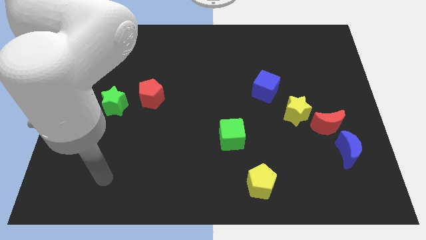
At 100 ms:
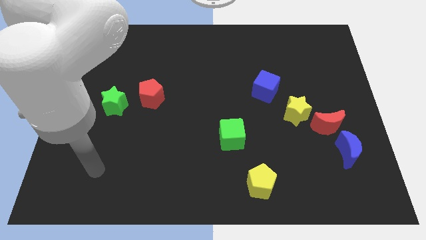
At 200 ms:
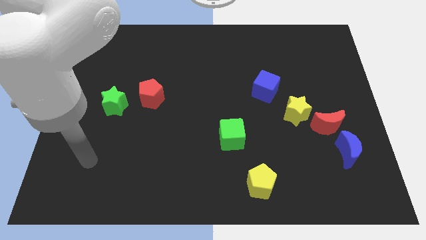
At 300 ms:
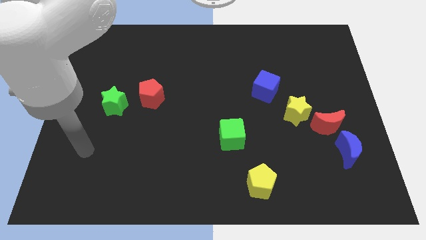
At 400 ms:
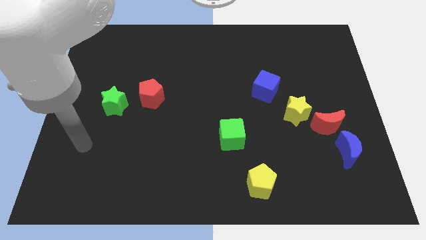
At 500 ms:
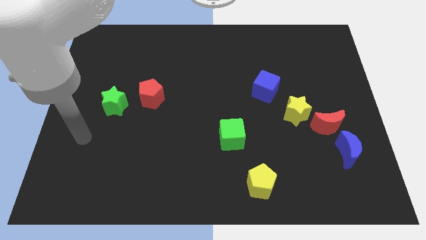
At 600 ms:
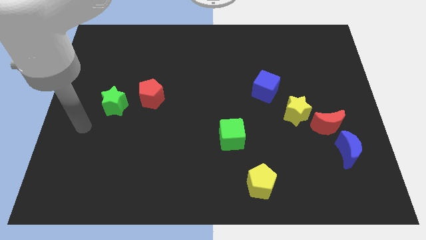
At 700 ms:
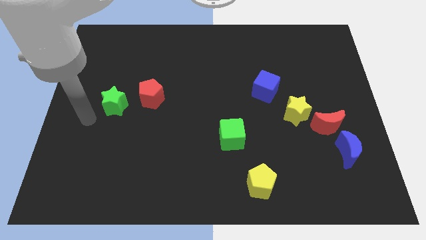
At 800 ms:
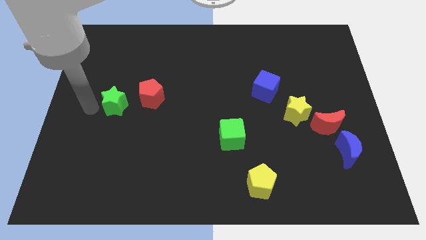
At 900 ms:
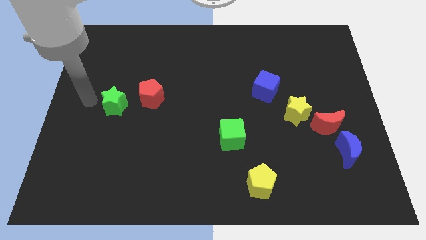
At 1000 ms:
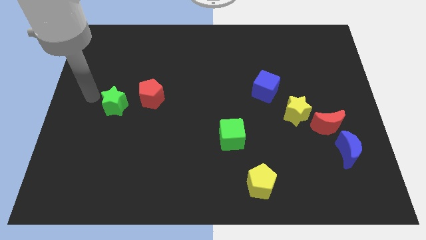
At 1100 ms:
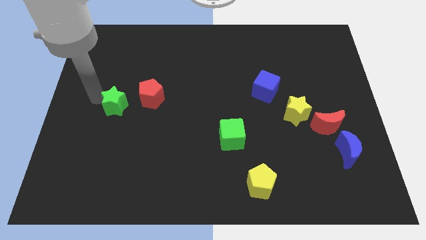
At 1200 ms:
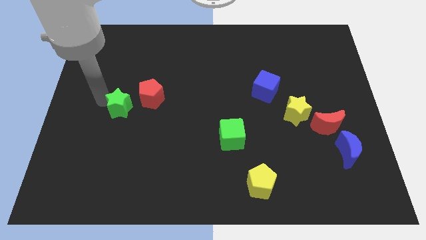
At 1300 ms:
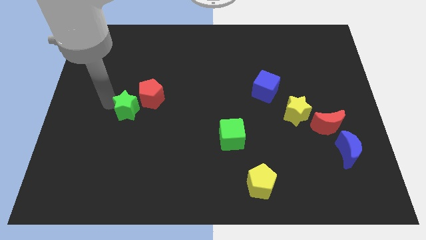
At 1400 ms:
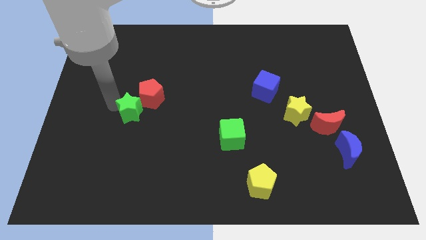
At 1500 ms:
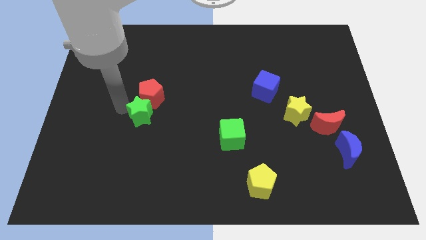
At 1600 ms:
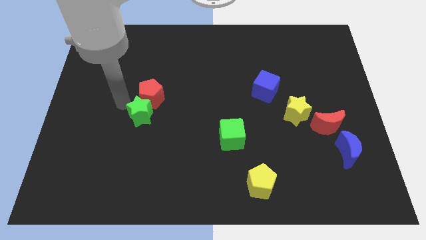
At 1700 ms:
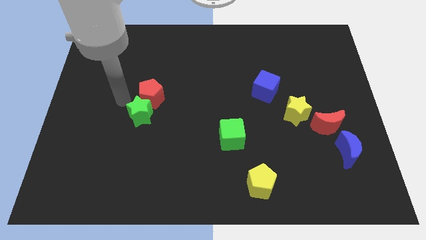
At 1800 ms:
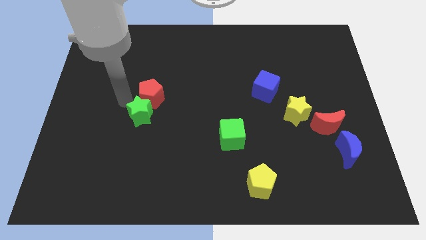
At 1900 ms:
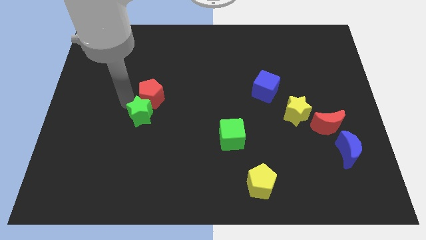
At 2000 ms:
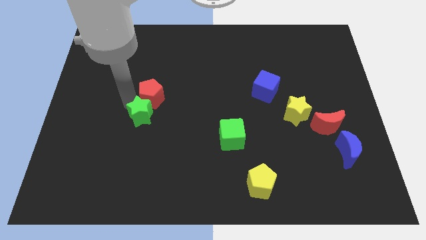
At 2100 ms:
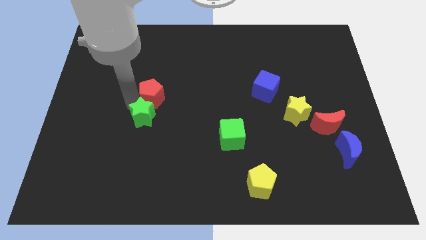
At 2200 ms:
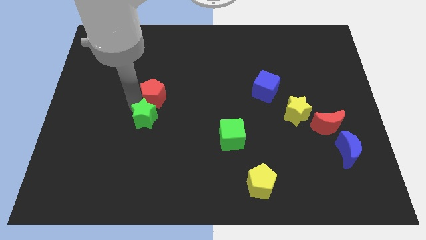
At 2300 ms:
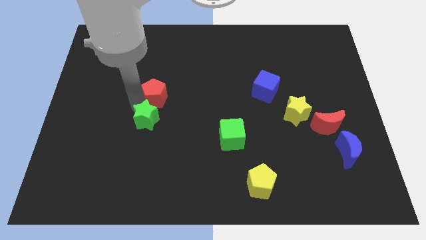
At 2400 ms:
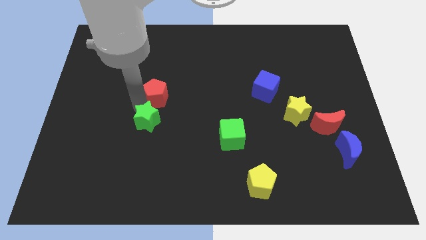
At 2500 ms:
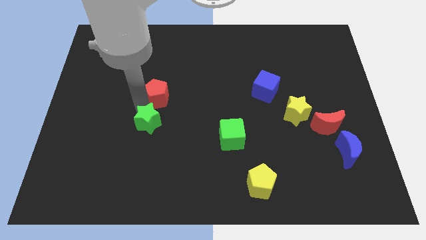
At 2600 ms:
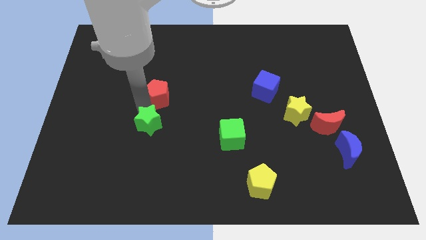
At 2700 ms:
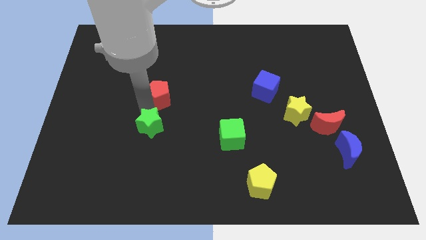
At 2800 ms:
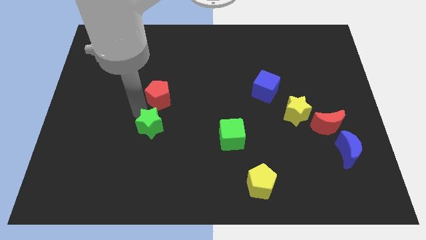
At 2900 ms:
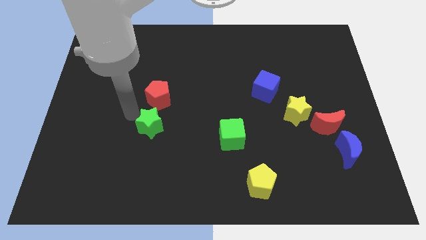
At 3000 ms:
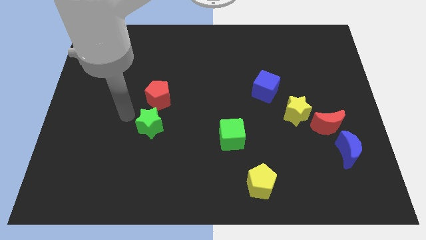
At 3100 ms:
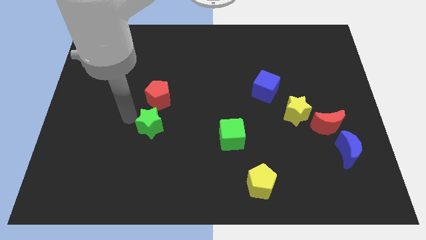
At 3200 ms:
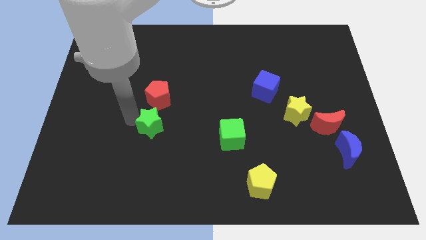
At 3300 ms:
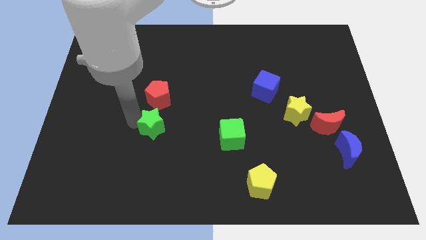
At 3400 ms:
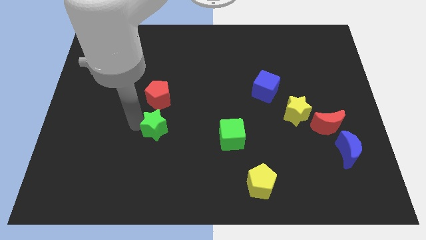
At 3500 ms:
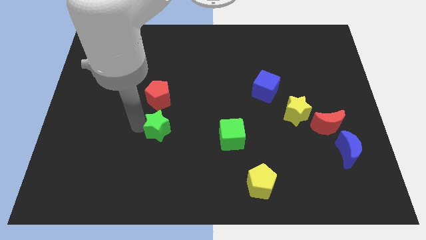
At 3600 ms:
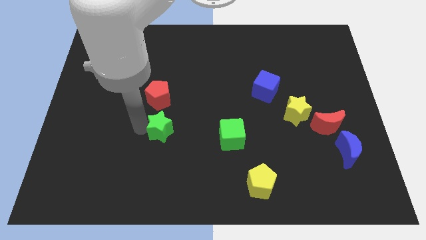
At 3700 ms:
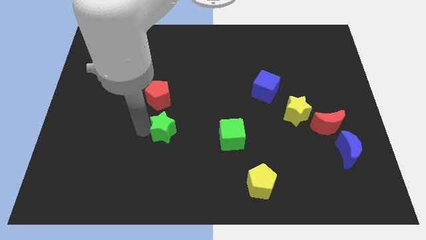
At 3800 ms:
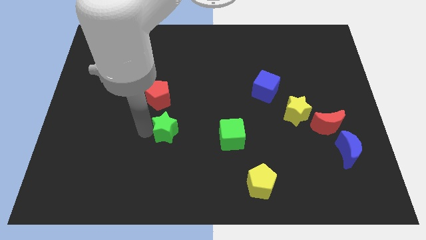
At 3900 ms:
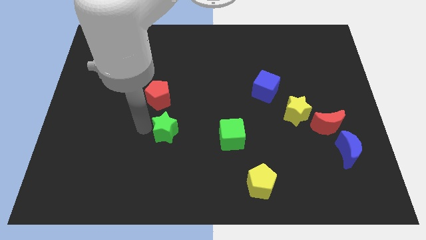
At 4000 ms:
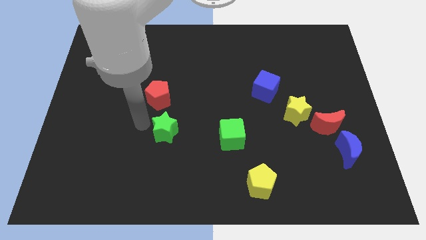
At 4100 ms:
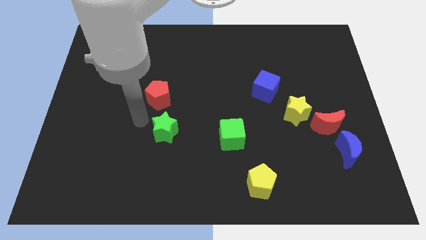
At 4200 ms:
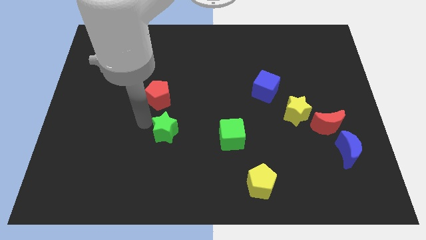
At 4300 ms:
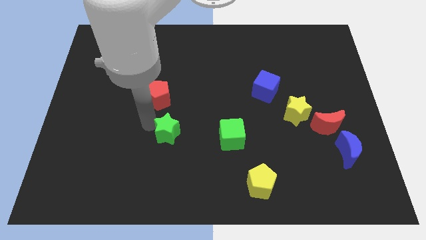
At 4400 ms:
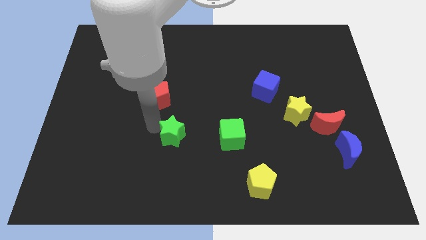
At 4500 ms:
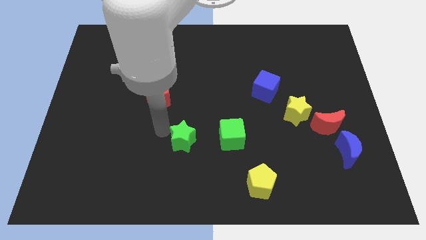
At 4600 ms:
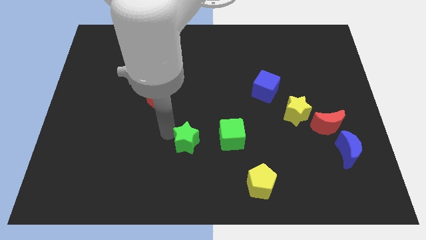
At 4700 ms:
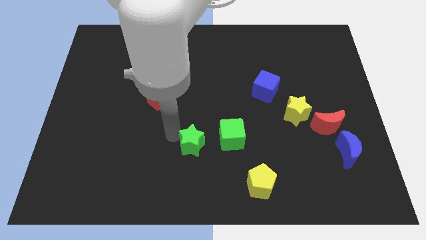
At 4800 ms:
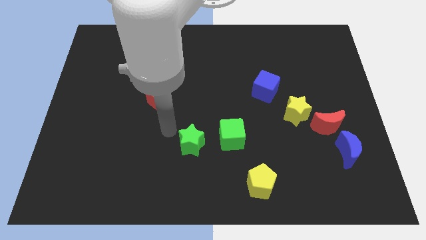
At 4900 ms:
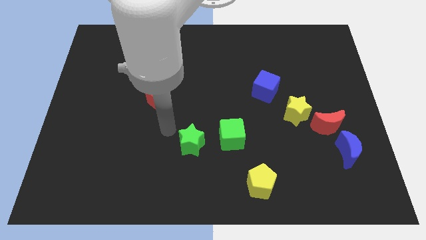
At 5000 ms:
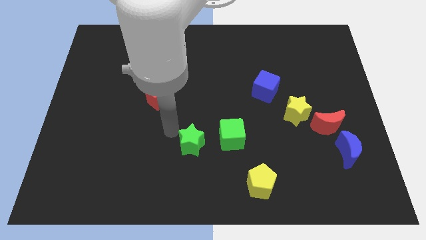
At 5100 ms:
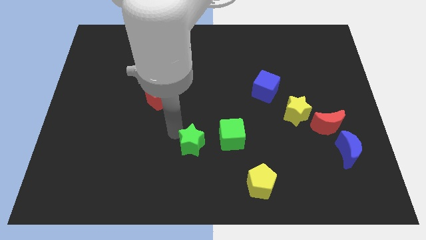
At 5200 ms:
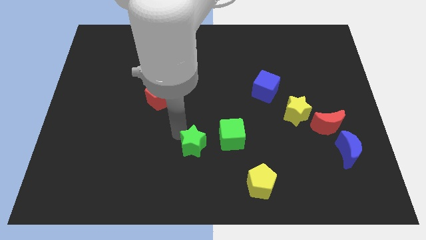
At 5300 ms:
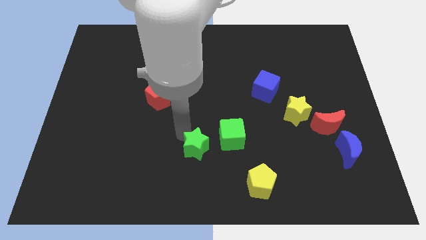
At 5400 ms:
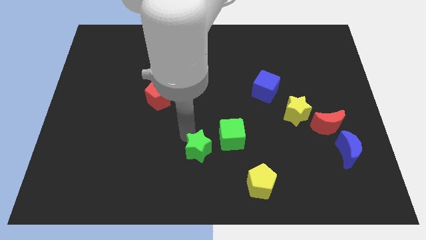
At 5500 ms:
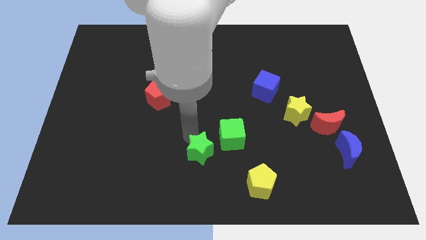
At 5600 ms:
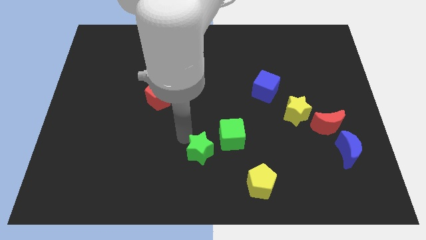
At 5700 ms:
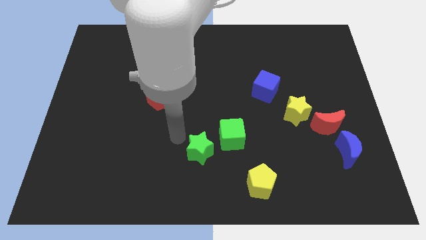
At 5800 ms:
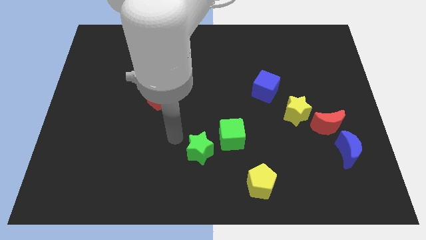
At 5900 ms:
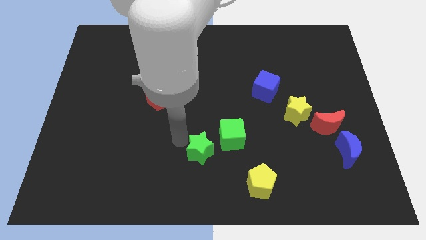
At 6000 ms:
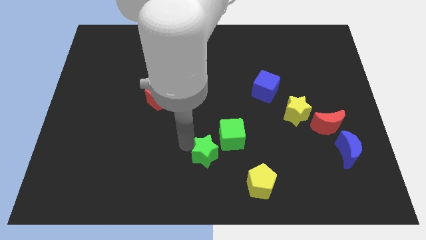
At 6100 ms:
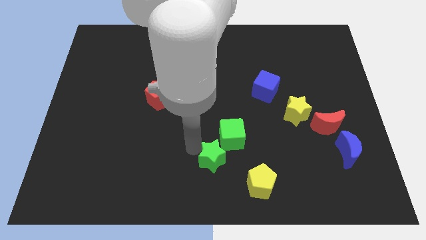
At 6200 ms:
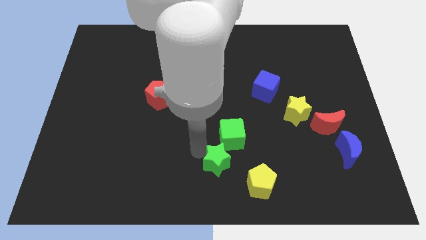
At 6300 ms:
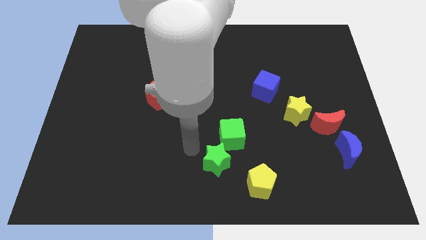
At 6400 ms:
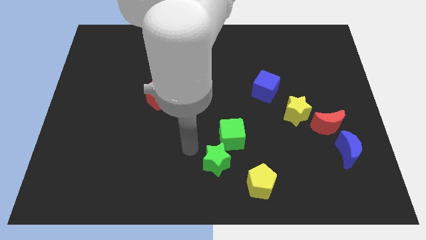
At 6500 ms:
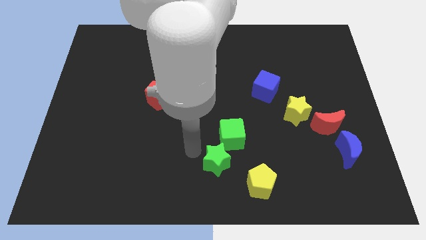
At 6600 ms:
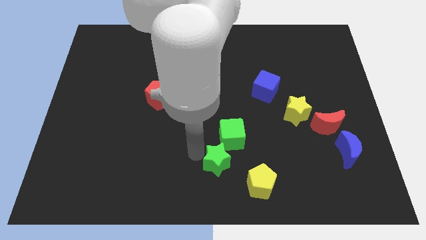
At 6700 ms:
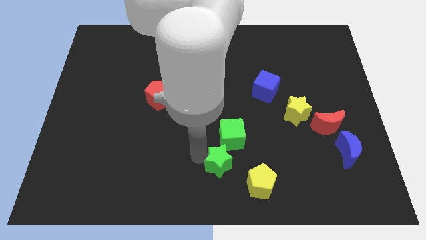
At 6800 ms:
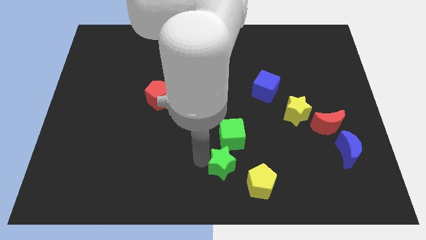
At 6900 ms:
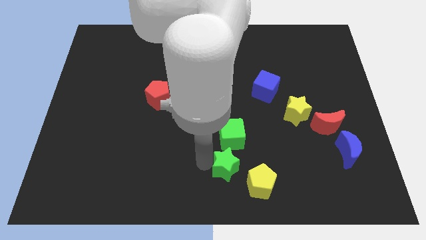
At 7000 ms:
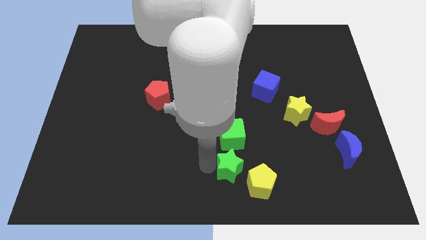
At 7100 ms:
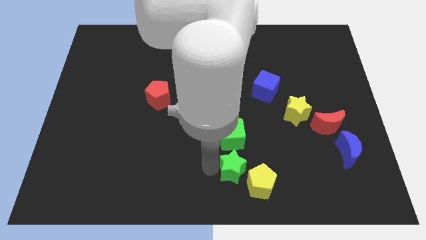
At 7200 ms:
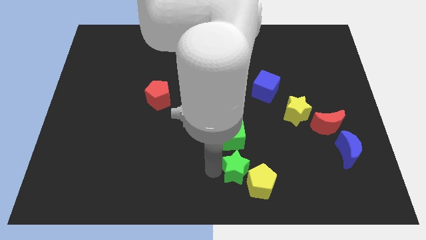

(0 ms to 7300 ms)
put the green star close to the yellow pentagon
